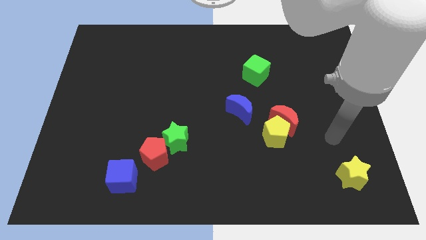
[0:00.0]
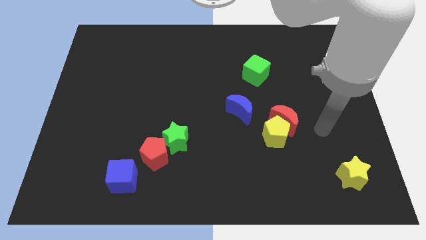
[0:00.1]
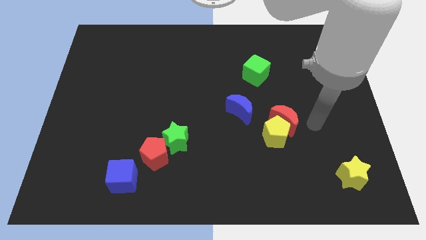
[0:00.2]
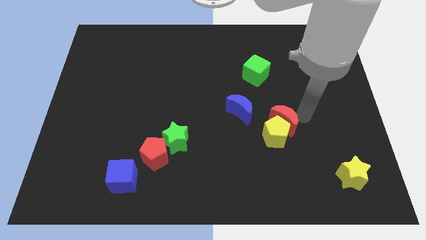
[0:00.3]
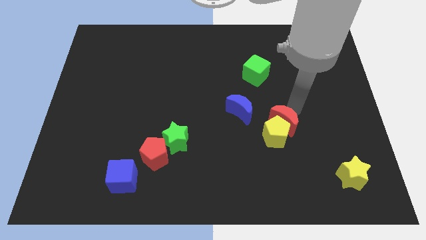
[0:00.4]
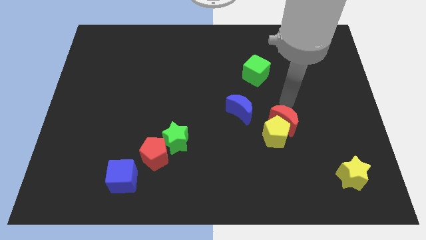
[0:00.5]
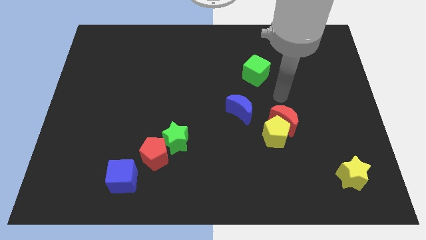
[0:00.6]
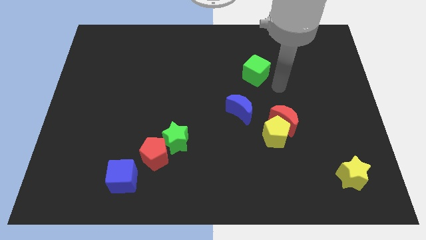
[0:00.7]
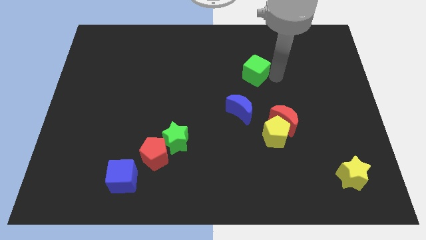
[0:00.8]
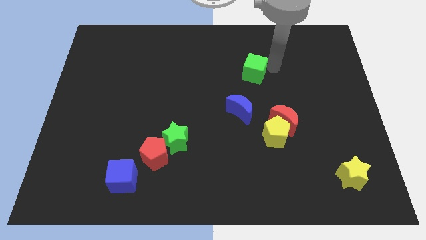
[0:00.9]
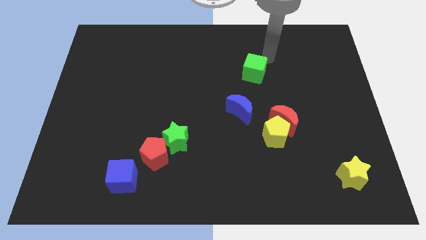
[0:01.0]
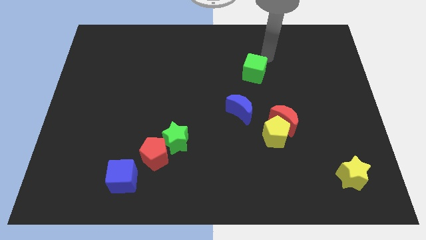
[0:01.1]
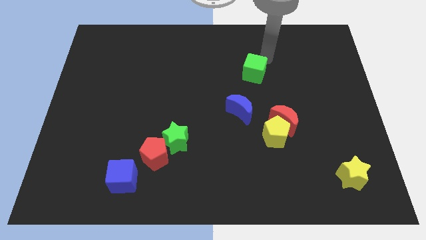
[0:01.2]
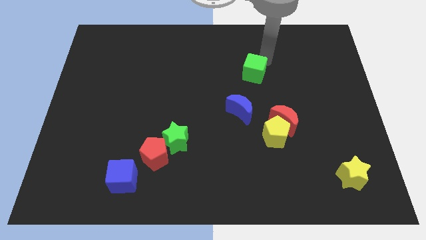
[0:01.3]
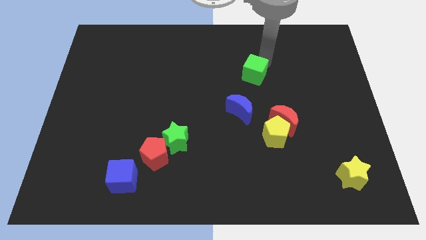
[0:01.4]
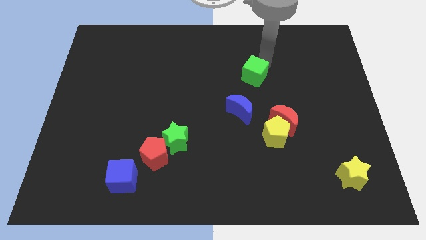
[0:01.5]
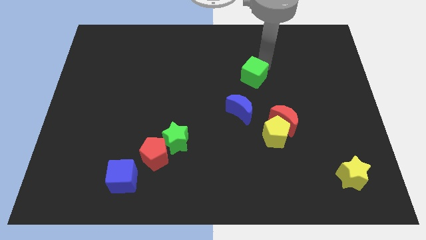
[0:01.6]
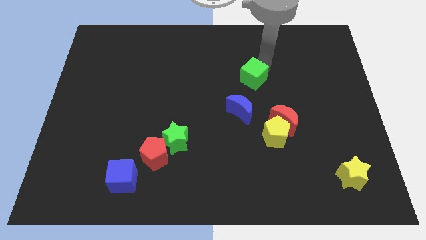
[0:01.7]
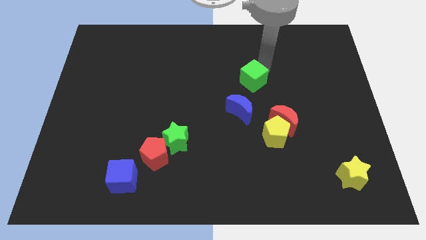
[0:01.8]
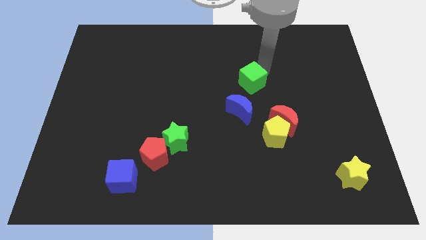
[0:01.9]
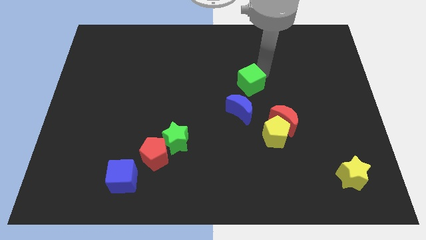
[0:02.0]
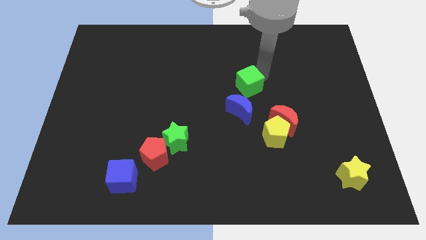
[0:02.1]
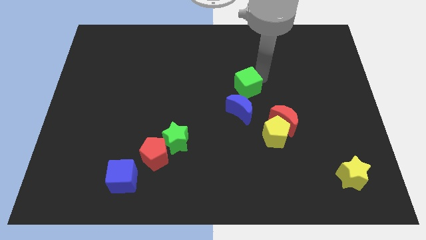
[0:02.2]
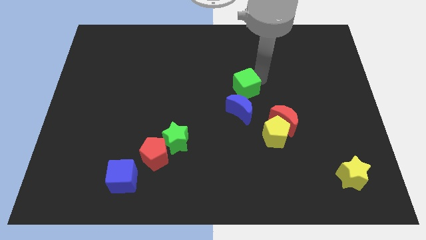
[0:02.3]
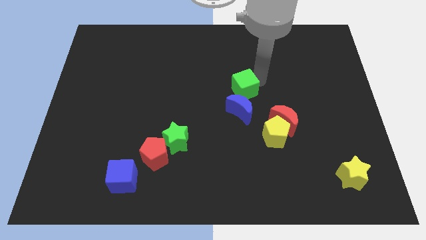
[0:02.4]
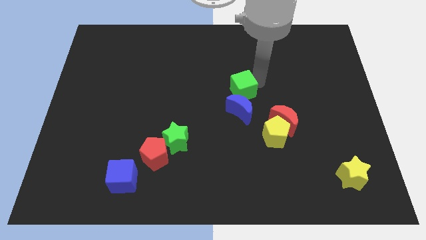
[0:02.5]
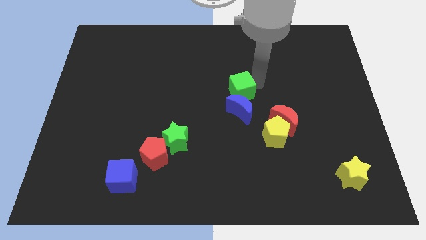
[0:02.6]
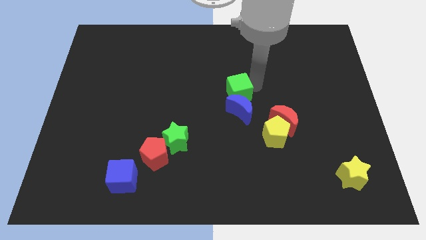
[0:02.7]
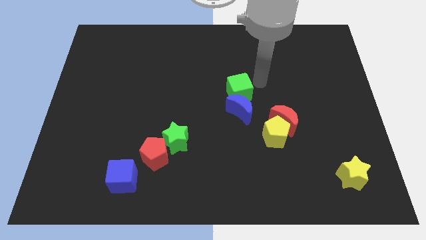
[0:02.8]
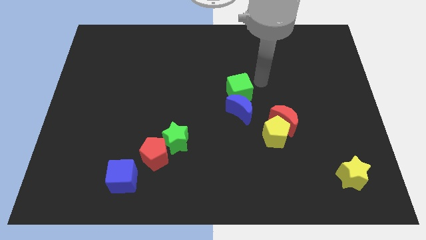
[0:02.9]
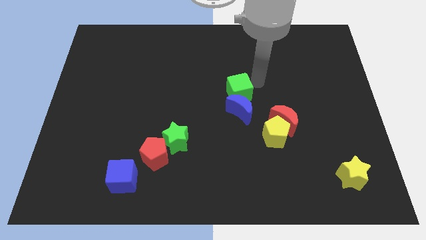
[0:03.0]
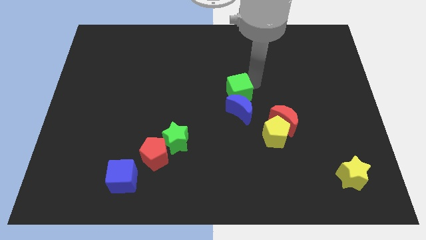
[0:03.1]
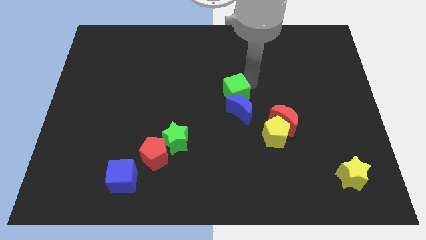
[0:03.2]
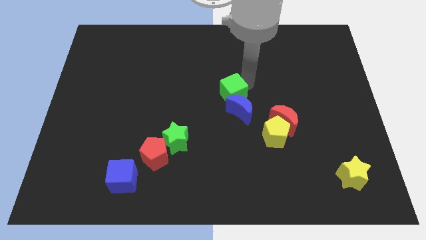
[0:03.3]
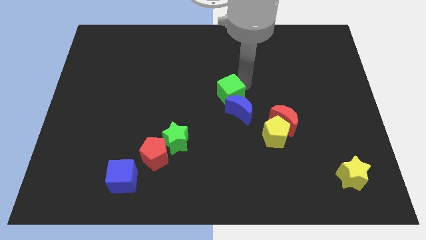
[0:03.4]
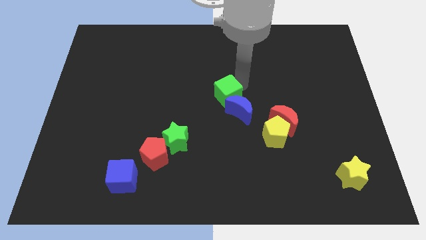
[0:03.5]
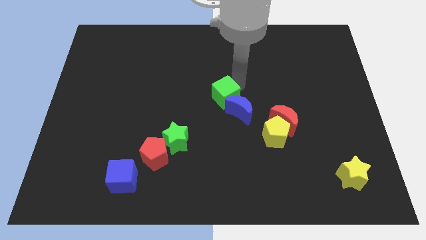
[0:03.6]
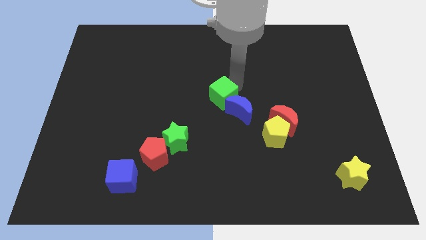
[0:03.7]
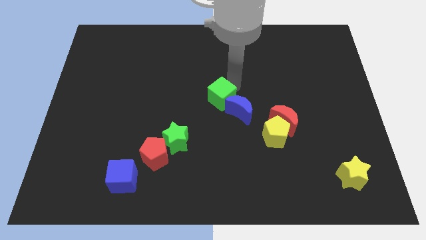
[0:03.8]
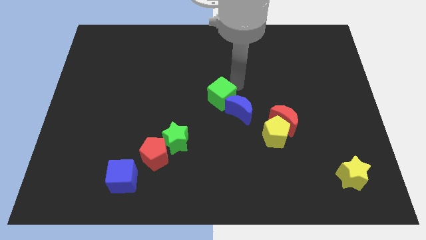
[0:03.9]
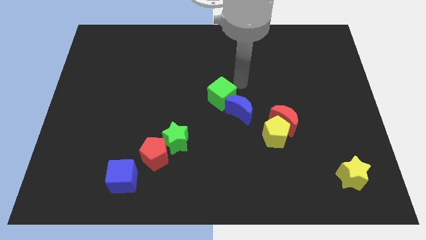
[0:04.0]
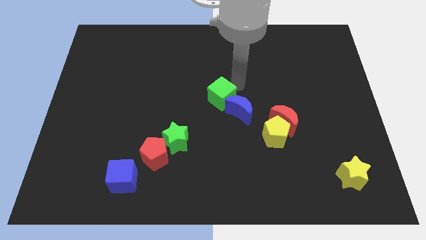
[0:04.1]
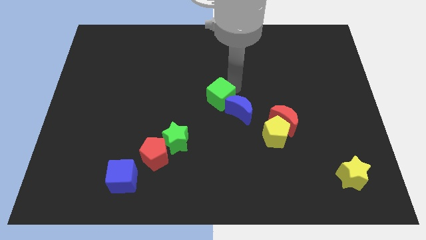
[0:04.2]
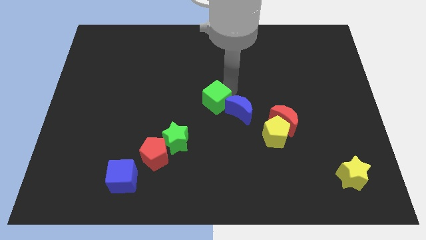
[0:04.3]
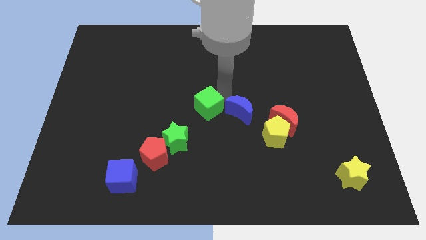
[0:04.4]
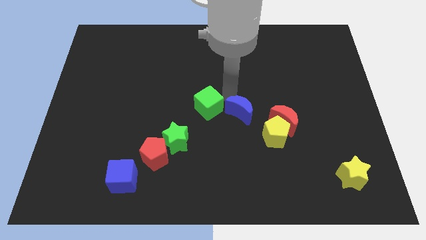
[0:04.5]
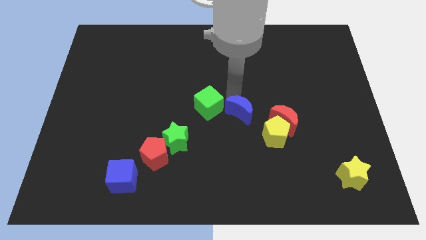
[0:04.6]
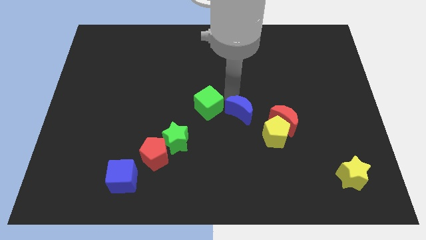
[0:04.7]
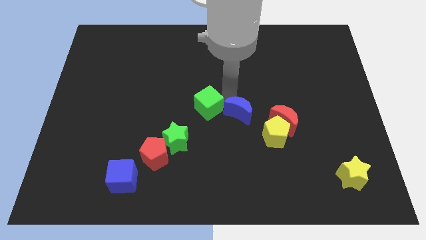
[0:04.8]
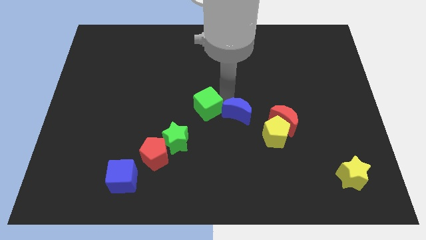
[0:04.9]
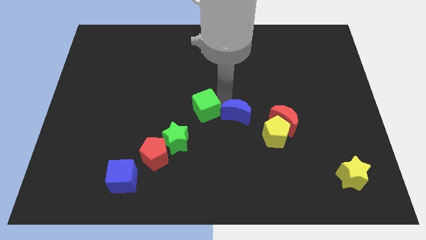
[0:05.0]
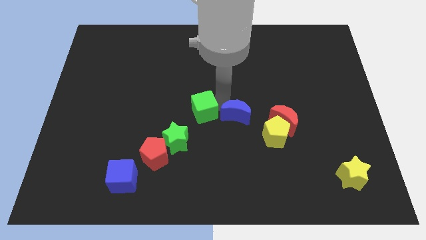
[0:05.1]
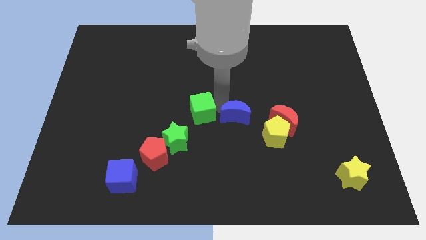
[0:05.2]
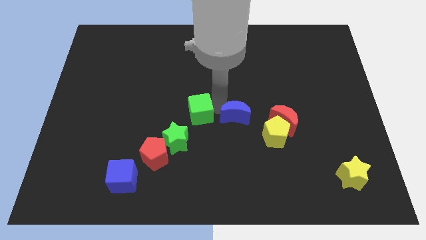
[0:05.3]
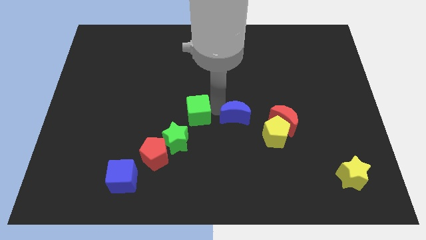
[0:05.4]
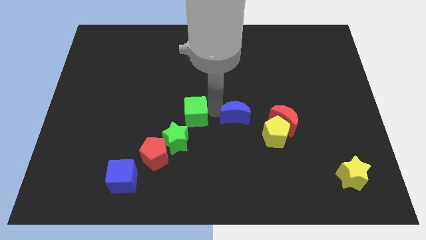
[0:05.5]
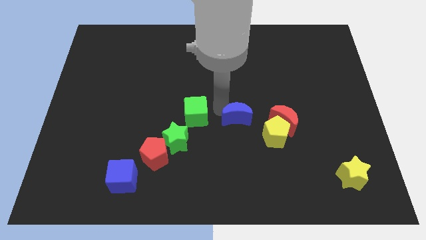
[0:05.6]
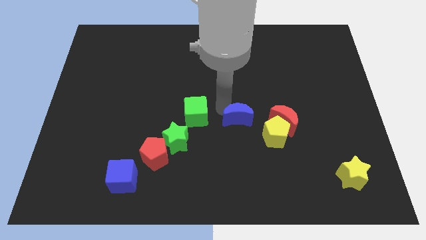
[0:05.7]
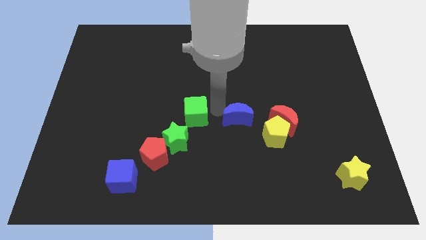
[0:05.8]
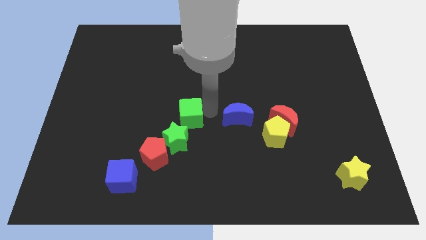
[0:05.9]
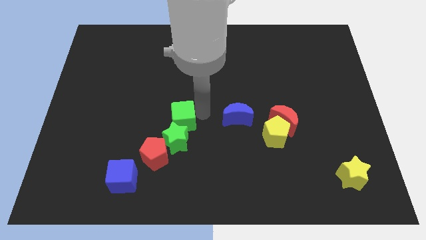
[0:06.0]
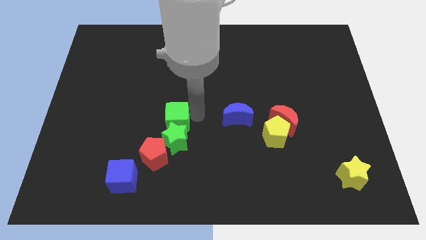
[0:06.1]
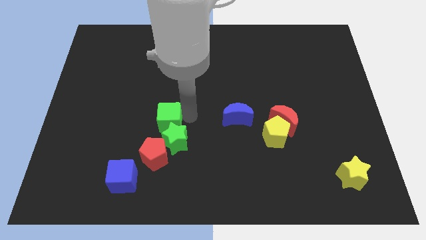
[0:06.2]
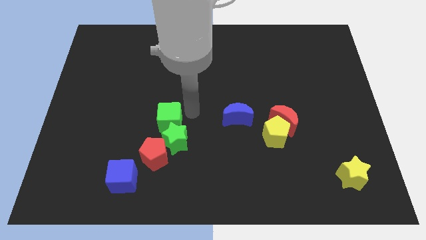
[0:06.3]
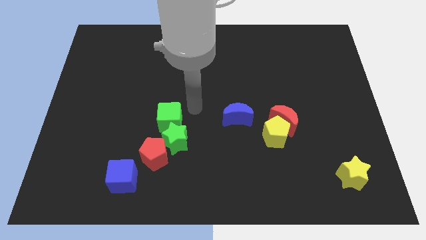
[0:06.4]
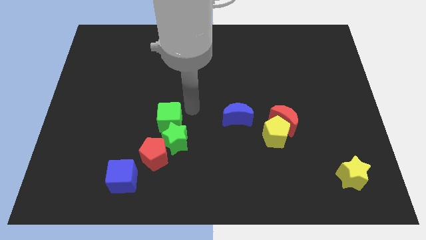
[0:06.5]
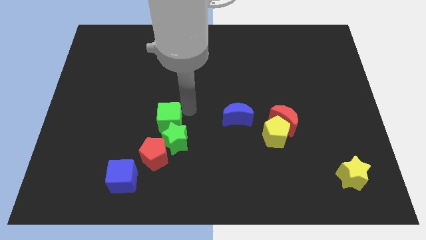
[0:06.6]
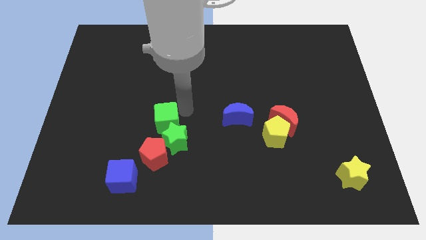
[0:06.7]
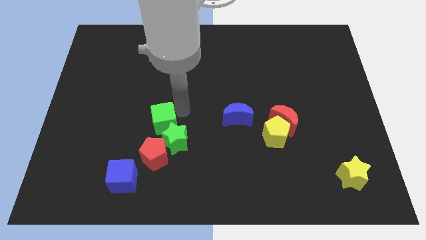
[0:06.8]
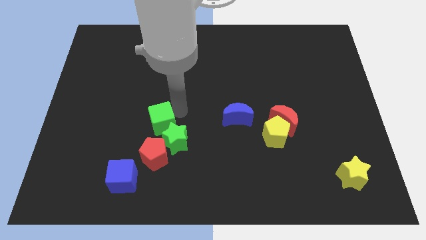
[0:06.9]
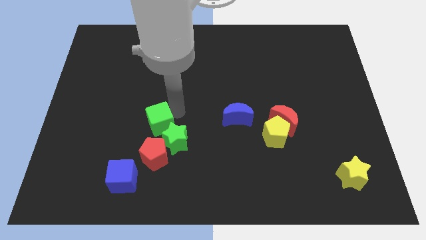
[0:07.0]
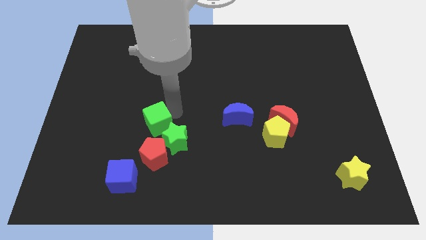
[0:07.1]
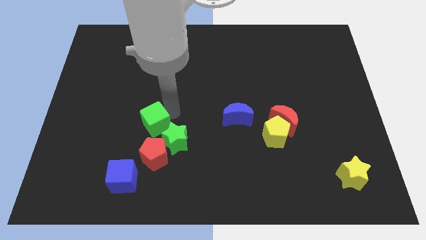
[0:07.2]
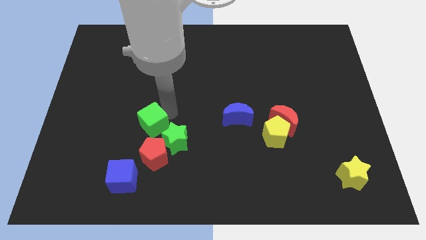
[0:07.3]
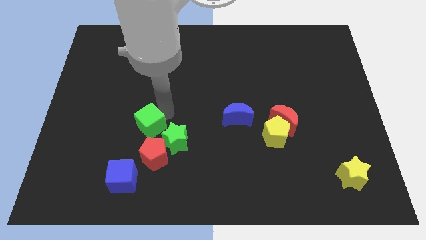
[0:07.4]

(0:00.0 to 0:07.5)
put the green cube above the blue cube
